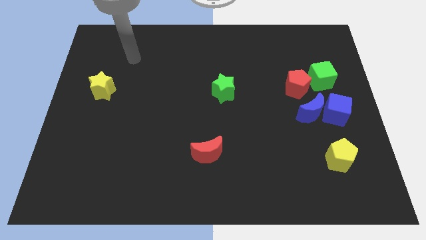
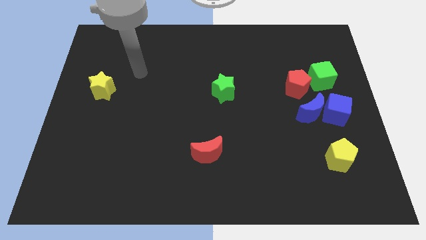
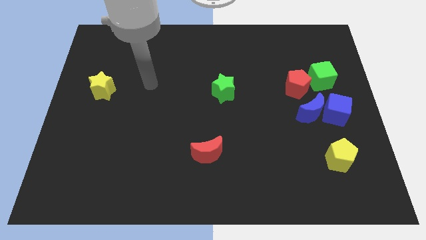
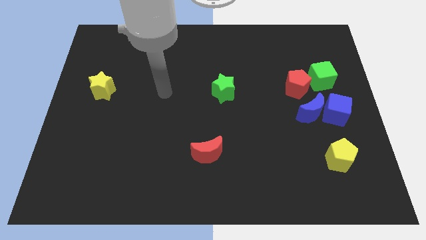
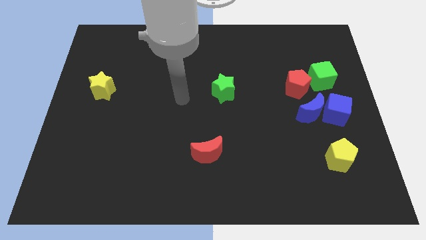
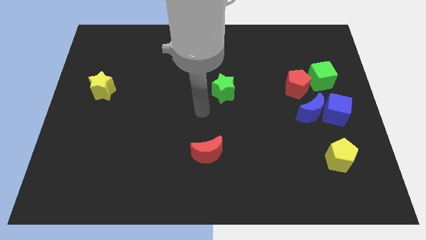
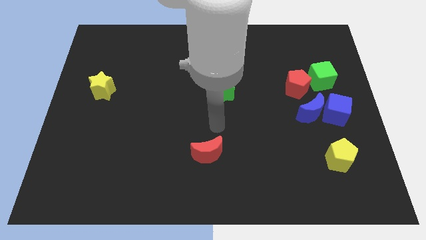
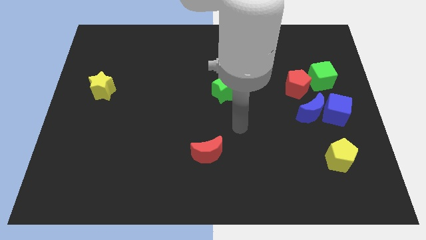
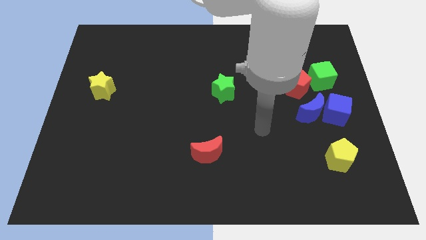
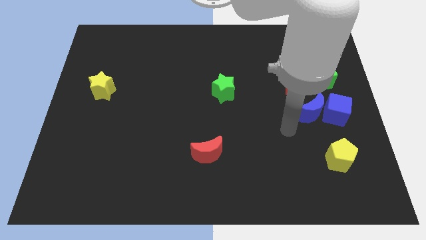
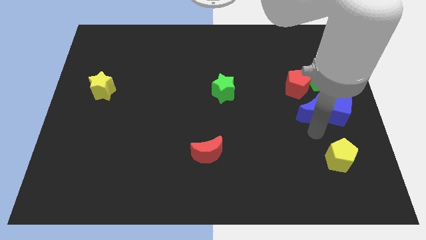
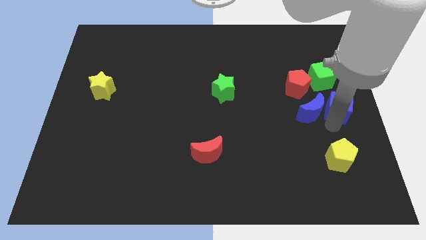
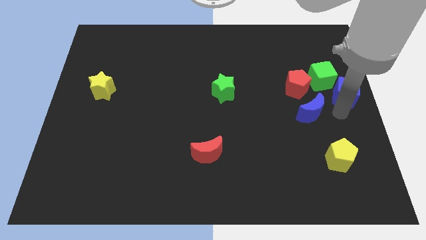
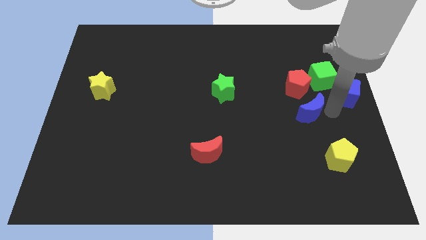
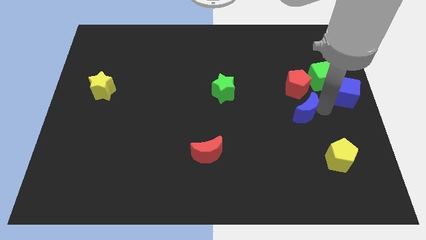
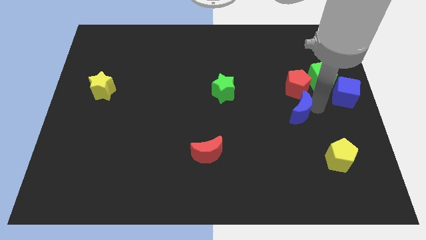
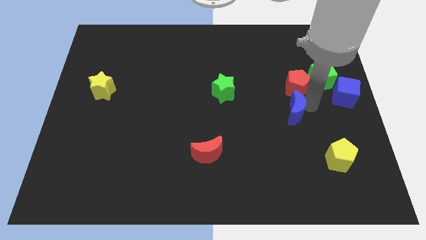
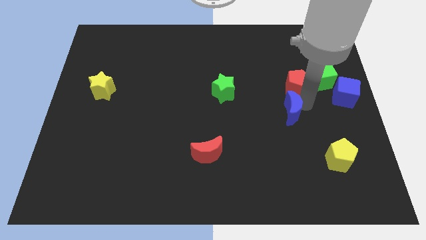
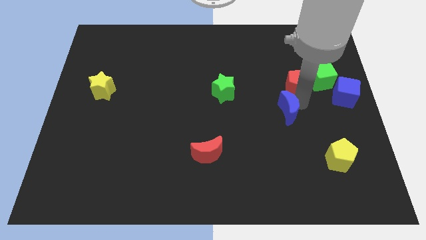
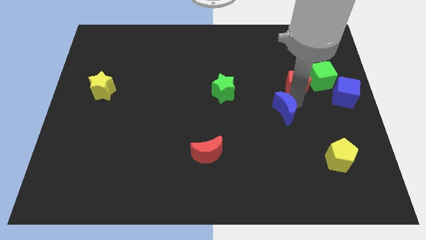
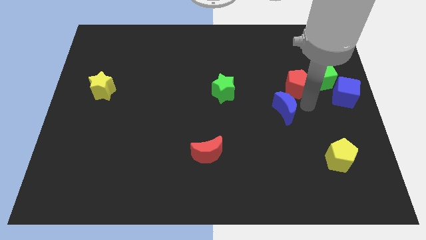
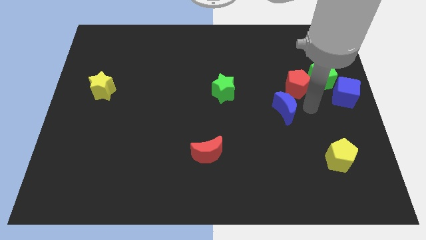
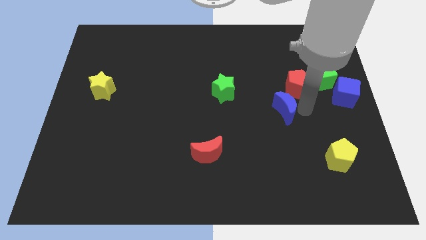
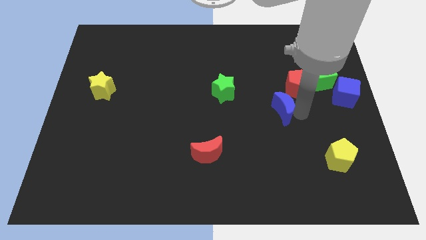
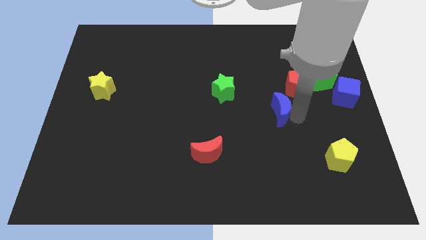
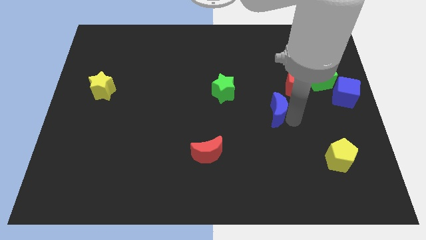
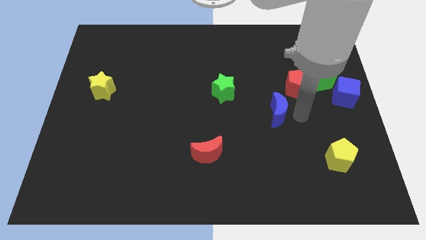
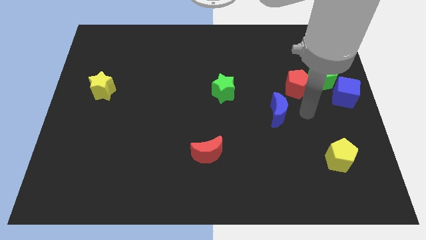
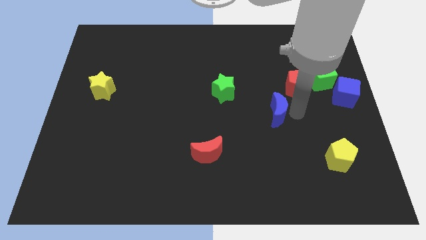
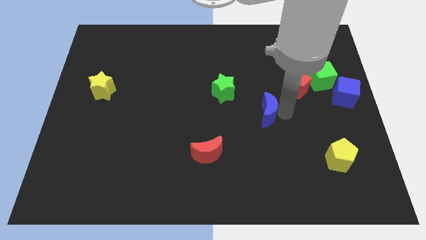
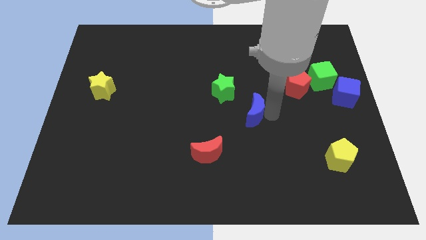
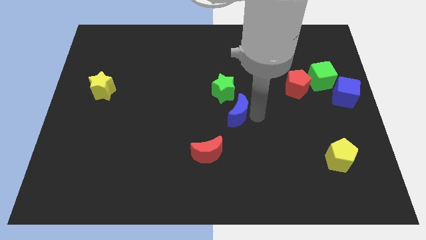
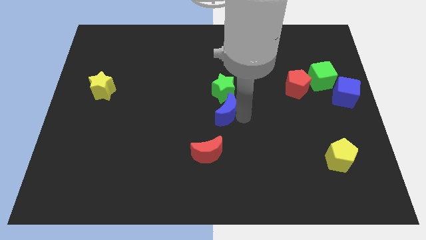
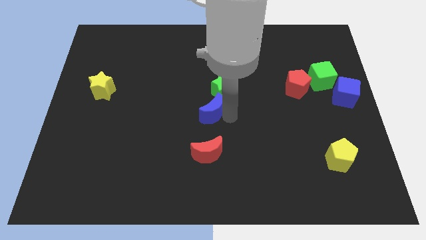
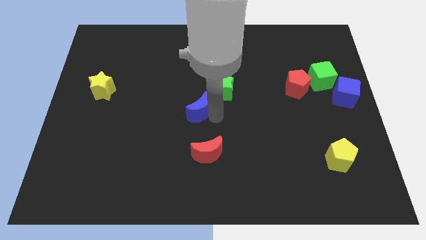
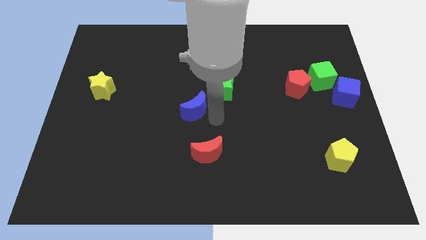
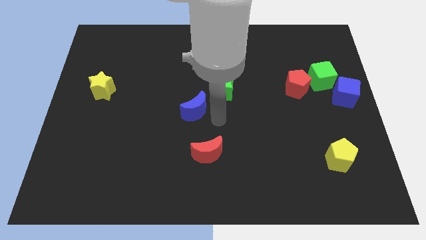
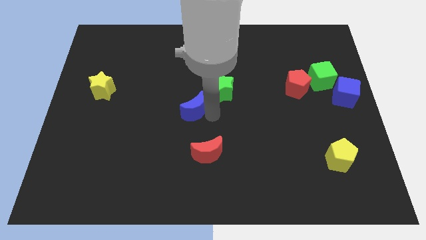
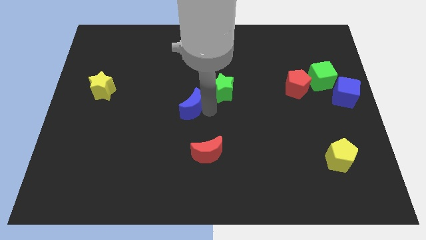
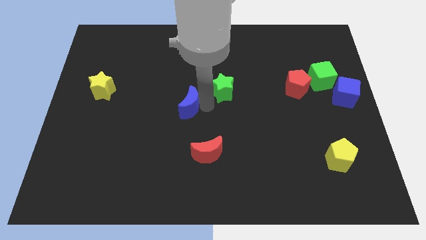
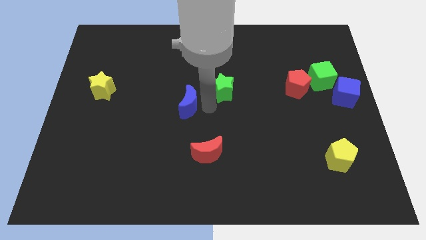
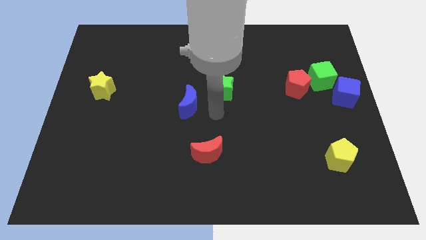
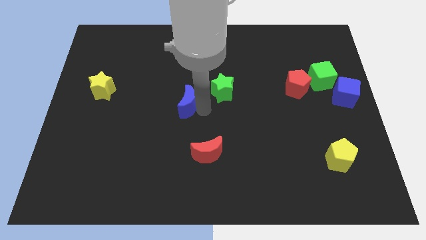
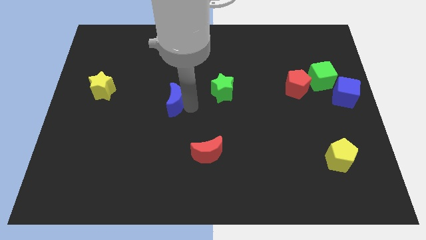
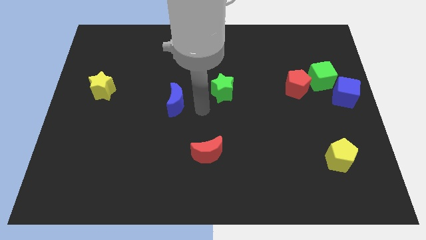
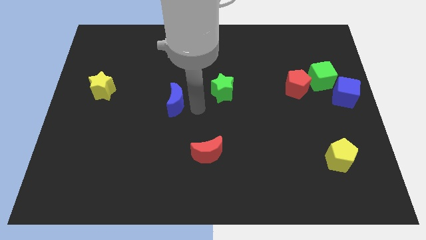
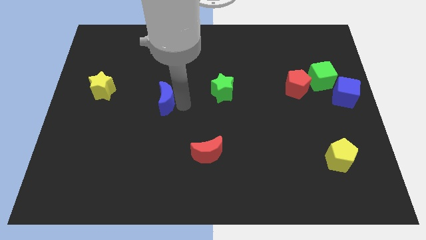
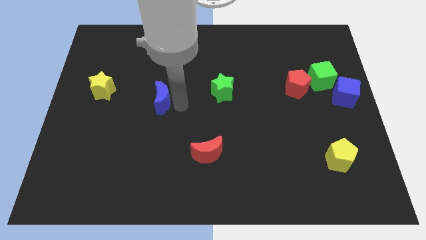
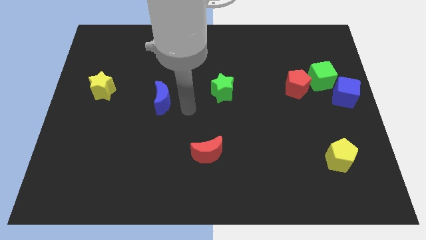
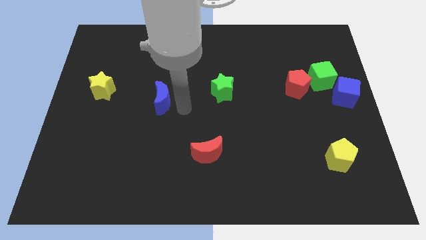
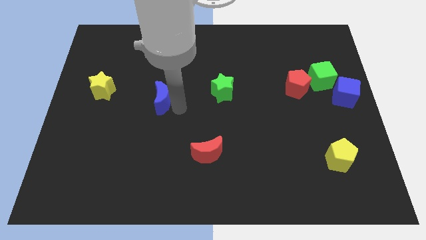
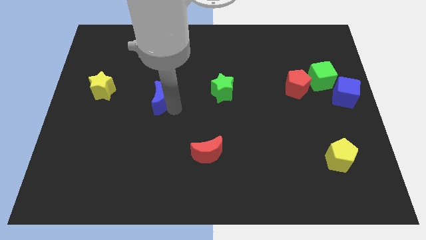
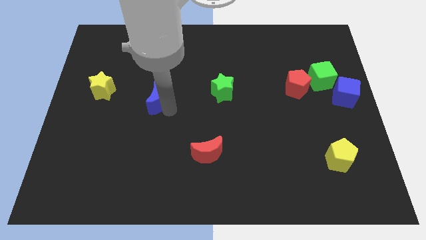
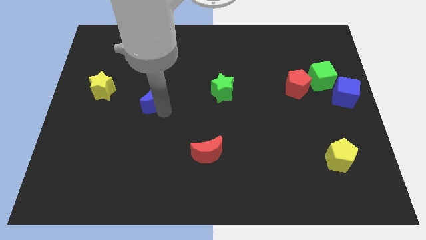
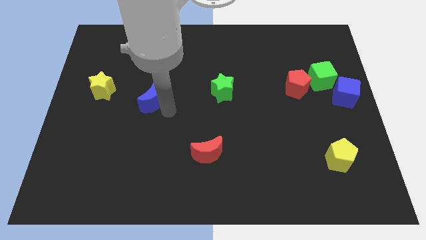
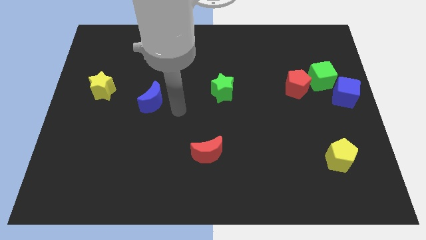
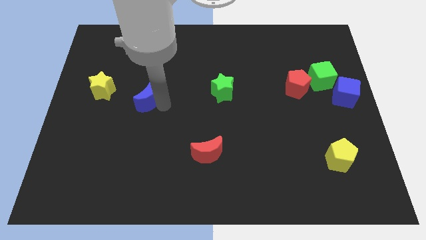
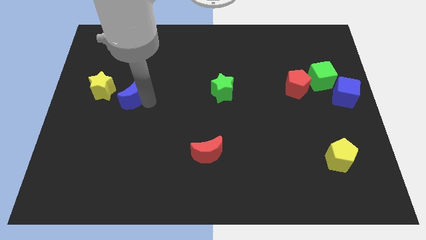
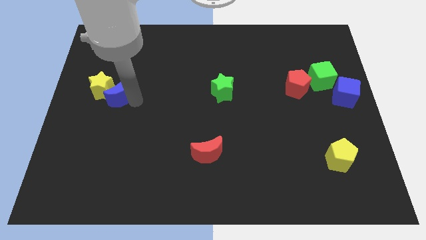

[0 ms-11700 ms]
slide the blue moon to the yellow star

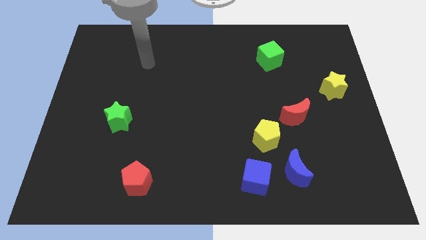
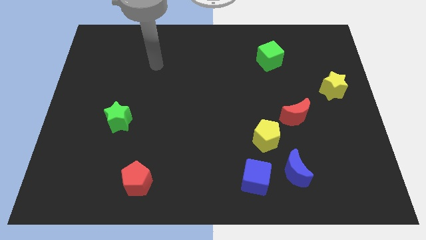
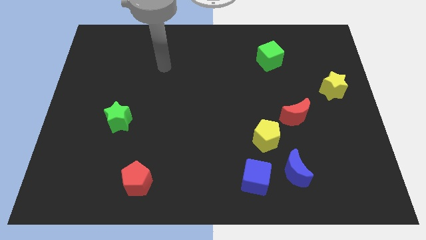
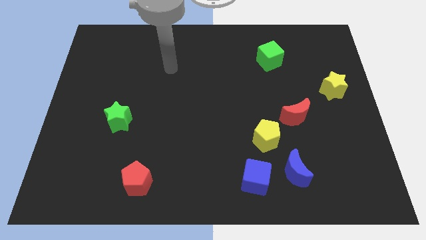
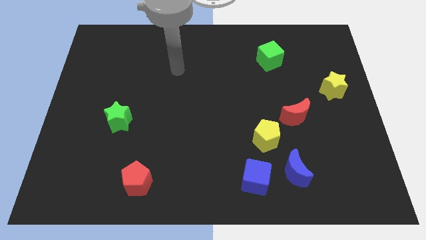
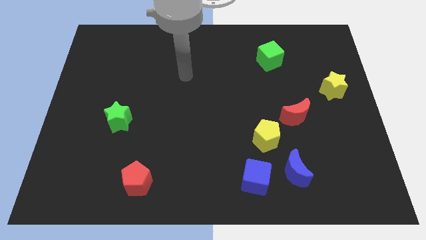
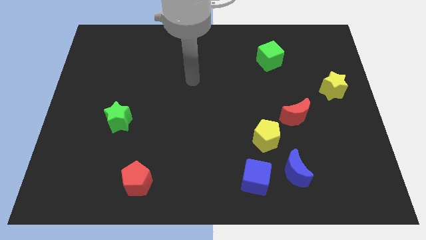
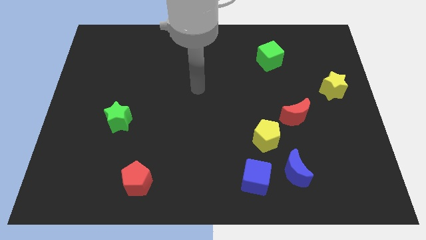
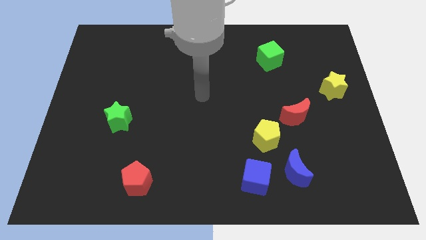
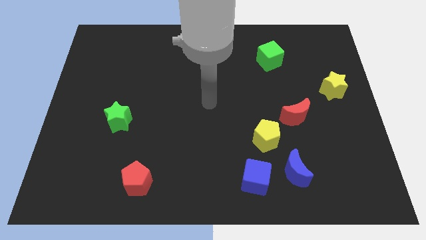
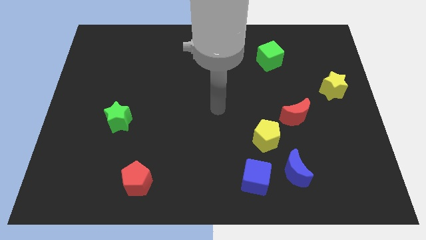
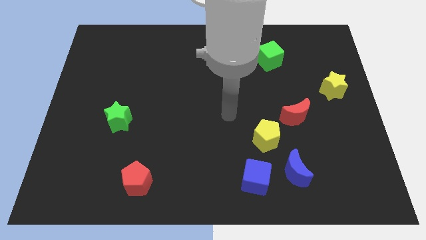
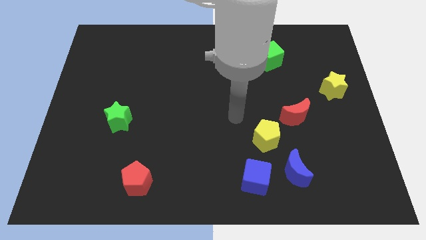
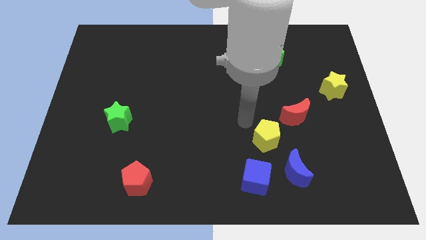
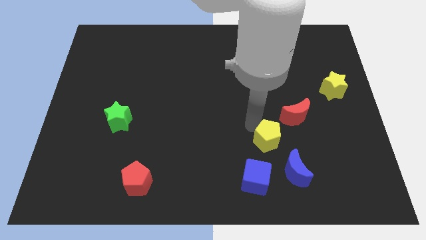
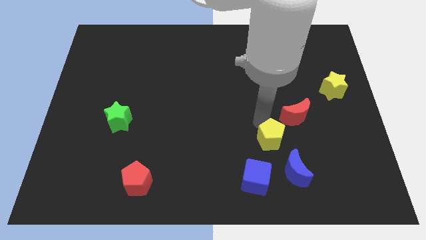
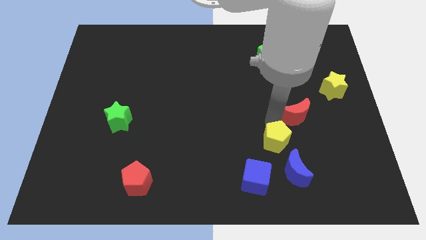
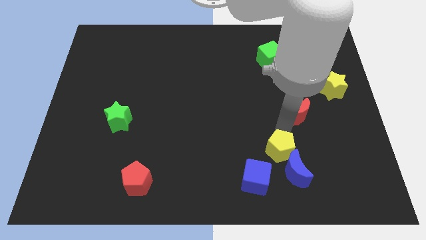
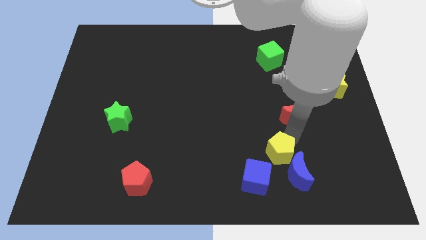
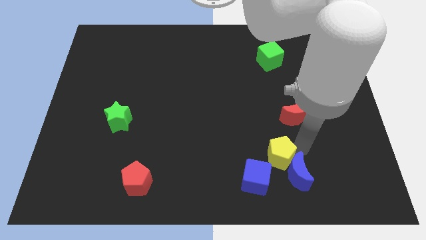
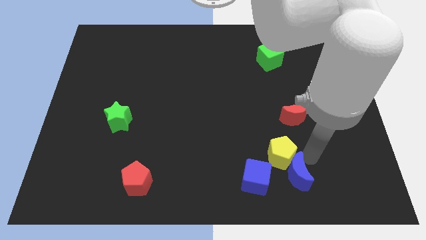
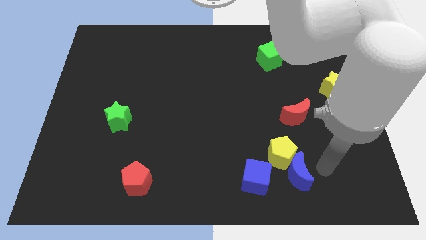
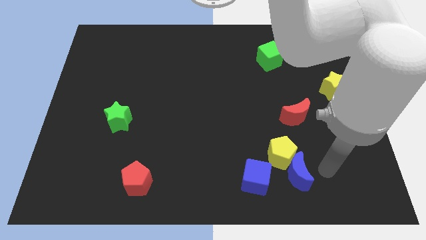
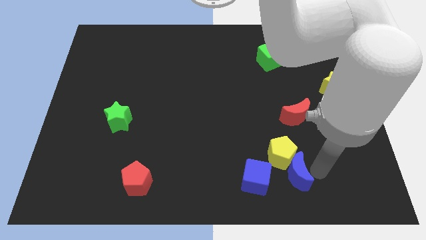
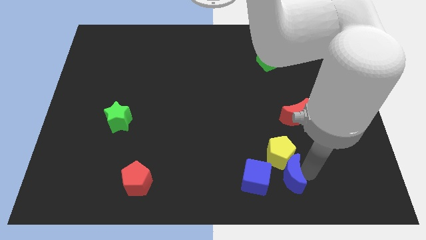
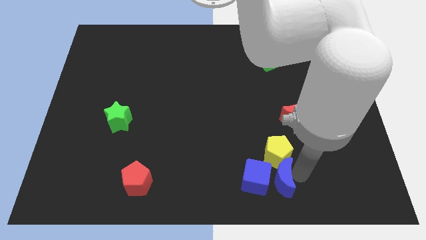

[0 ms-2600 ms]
put the blue moon towards the blue cube
